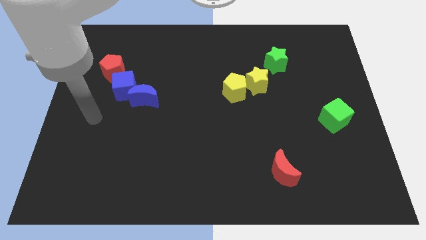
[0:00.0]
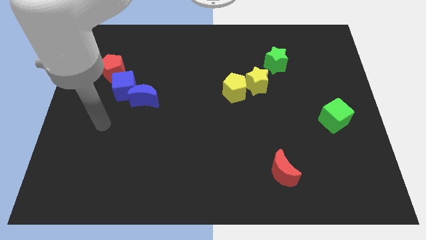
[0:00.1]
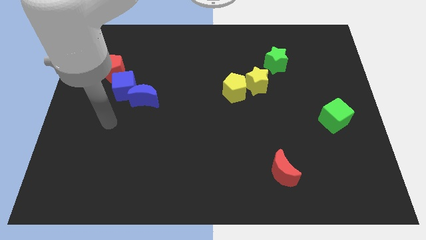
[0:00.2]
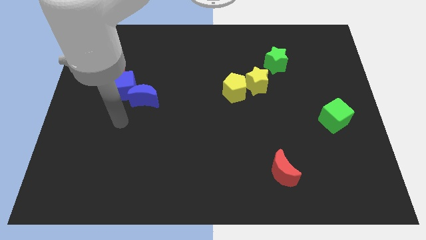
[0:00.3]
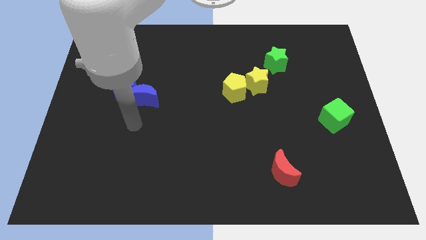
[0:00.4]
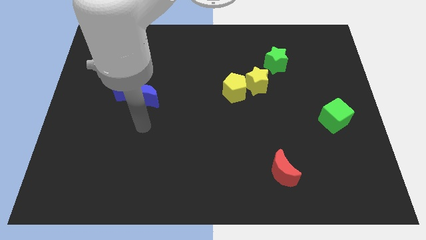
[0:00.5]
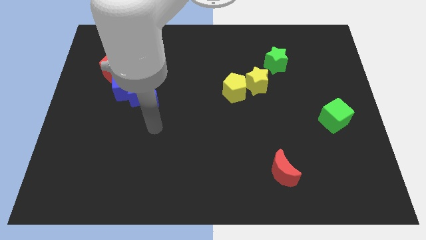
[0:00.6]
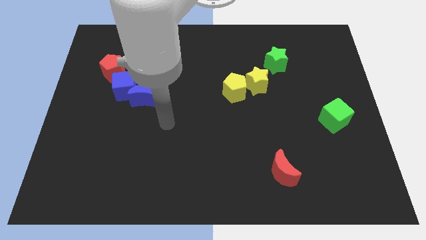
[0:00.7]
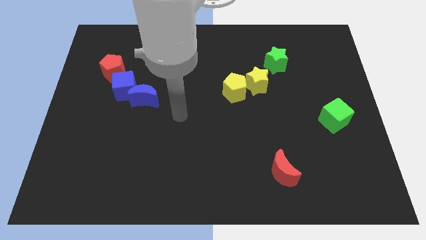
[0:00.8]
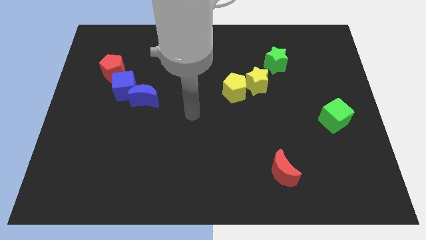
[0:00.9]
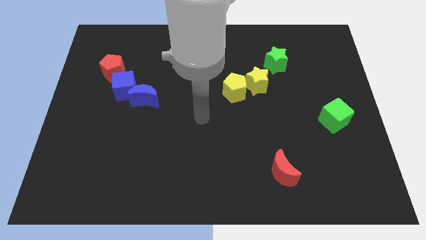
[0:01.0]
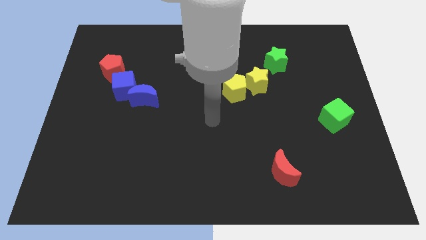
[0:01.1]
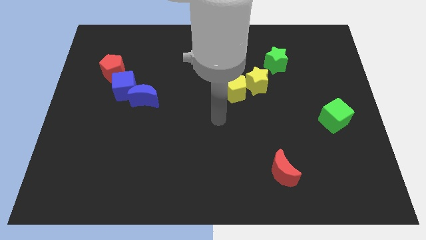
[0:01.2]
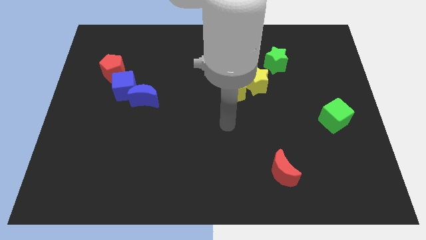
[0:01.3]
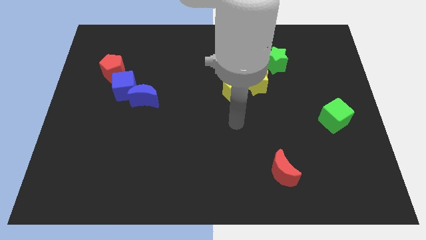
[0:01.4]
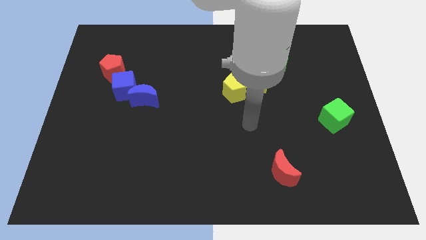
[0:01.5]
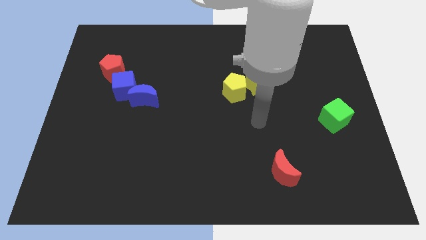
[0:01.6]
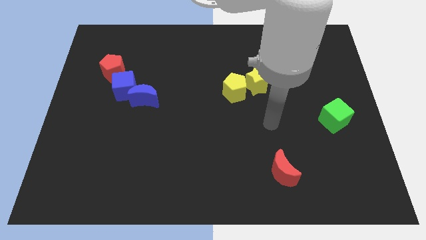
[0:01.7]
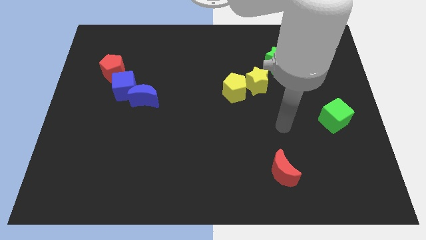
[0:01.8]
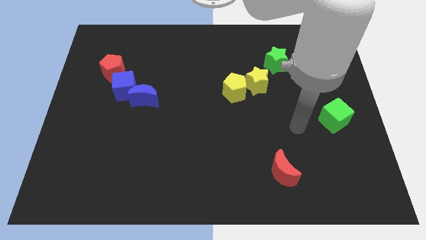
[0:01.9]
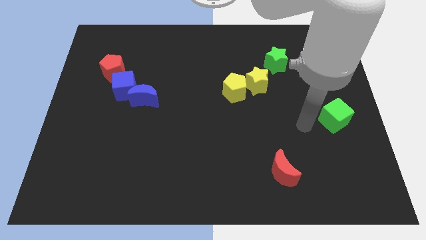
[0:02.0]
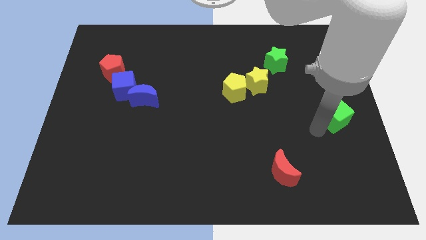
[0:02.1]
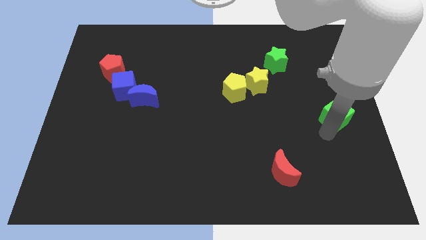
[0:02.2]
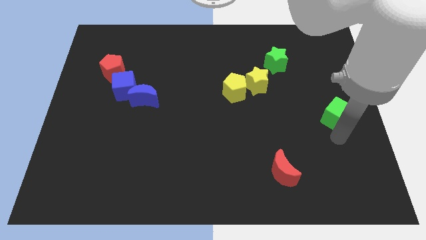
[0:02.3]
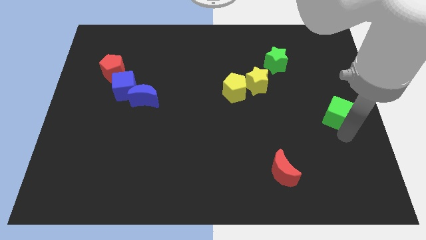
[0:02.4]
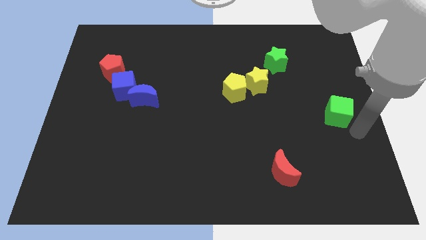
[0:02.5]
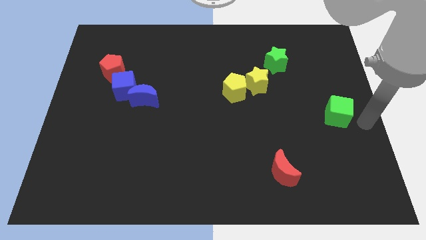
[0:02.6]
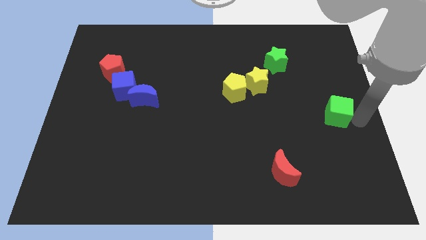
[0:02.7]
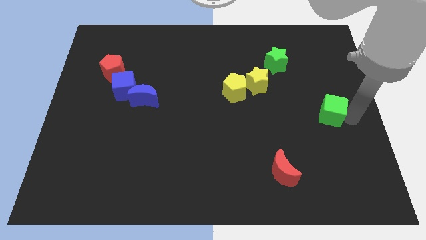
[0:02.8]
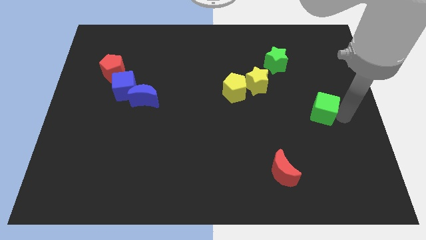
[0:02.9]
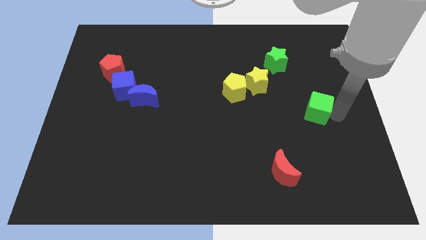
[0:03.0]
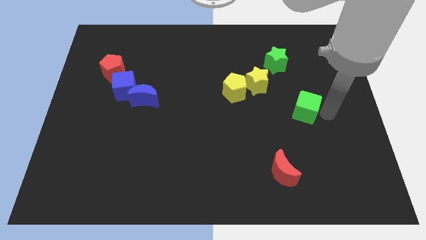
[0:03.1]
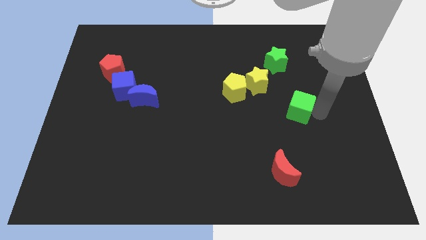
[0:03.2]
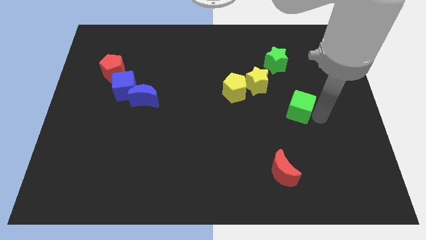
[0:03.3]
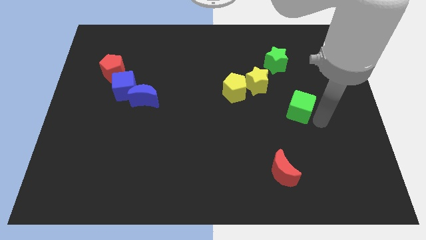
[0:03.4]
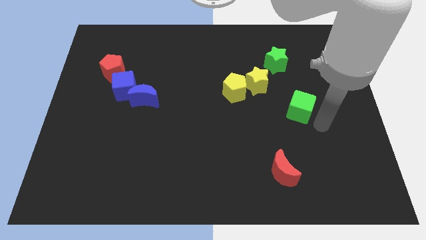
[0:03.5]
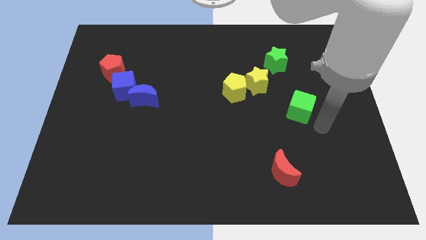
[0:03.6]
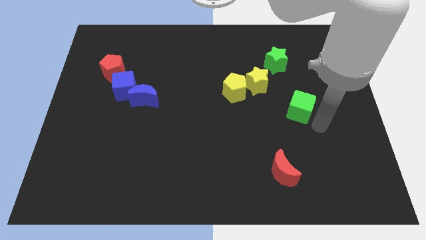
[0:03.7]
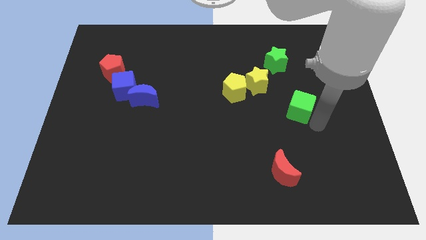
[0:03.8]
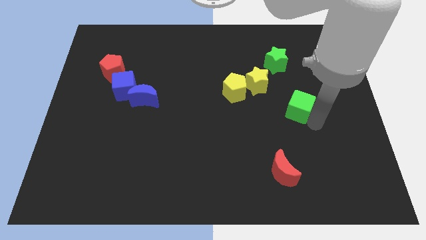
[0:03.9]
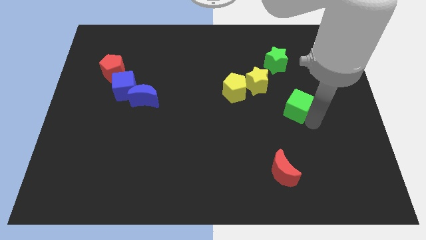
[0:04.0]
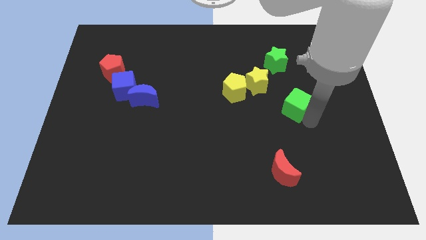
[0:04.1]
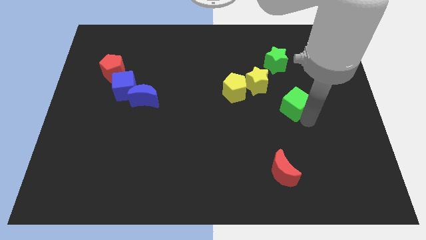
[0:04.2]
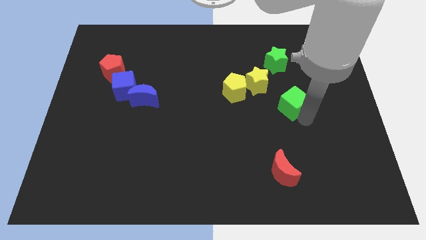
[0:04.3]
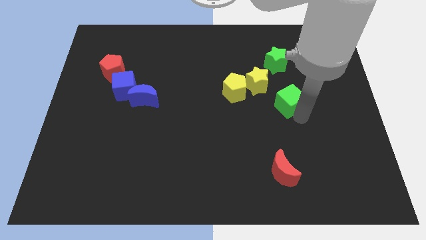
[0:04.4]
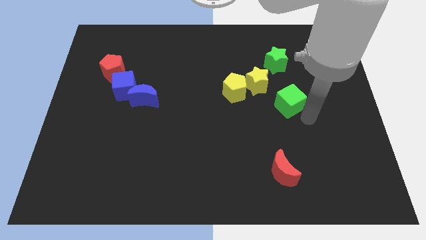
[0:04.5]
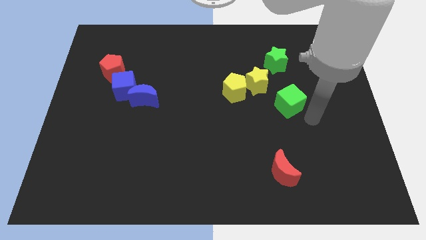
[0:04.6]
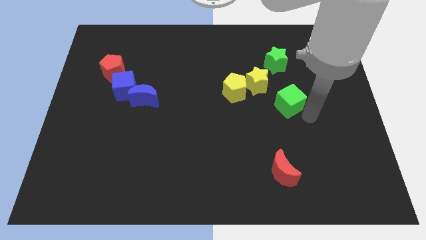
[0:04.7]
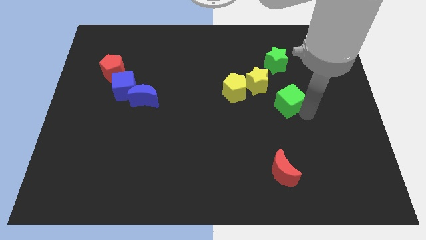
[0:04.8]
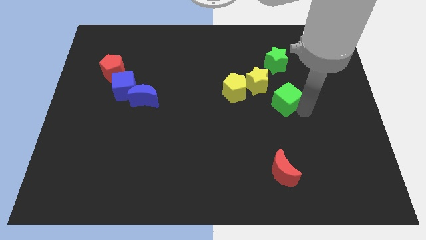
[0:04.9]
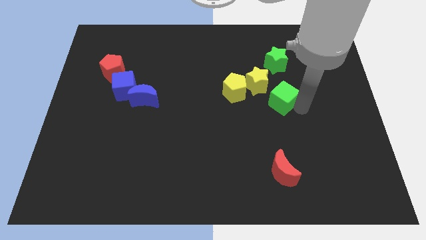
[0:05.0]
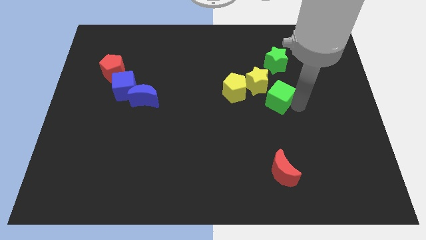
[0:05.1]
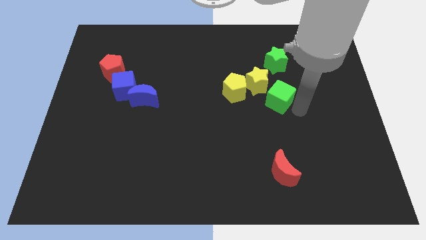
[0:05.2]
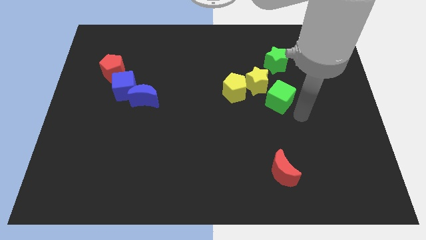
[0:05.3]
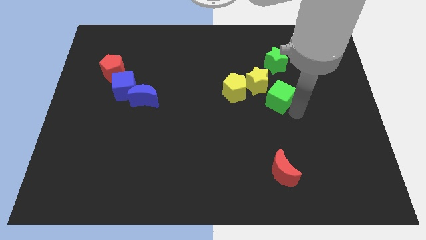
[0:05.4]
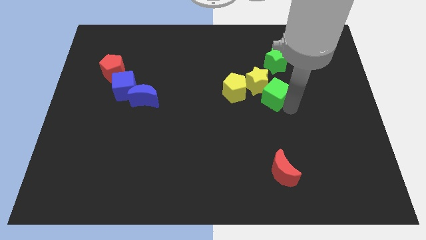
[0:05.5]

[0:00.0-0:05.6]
put the green cube next to the yellow star

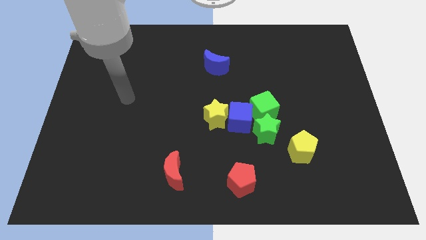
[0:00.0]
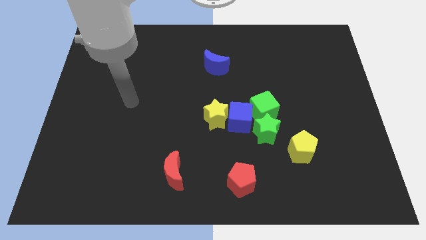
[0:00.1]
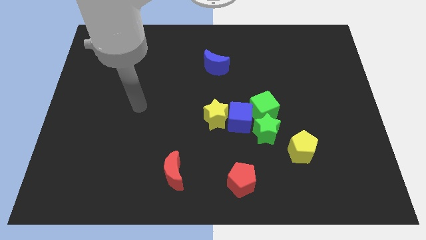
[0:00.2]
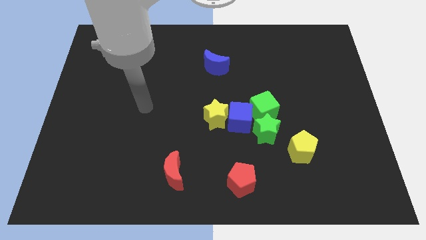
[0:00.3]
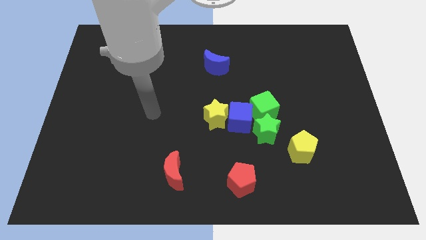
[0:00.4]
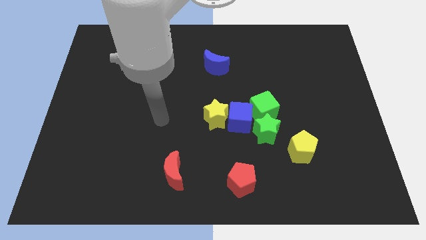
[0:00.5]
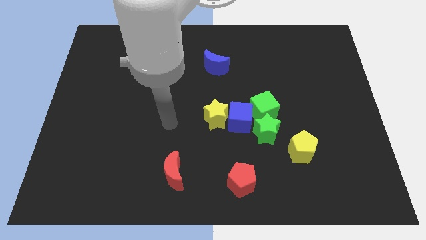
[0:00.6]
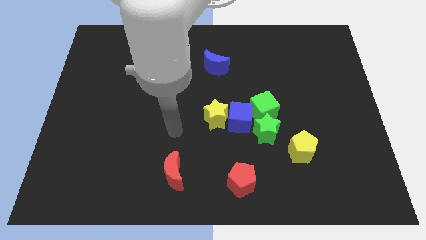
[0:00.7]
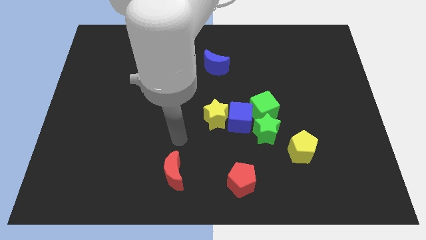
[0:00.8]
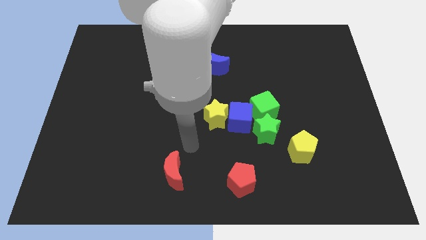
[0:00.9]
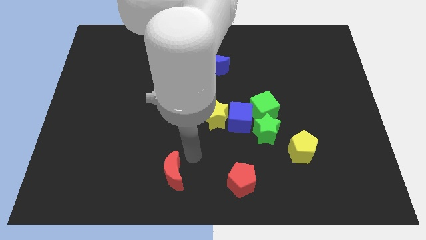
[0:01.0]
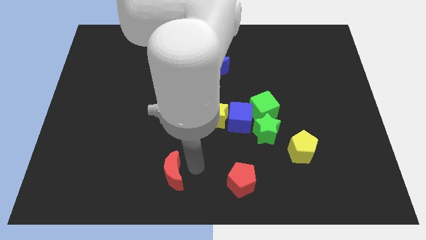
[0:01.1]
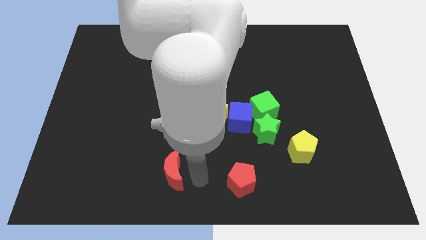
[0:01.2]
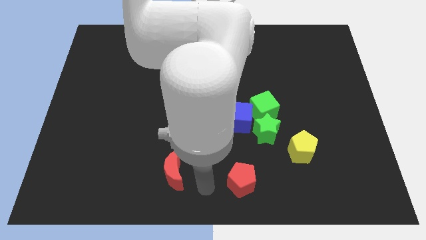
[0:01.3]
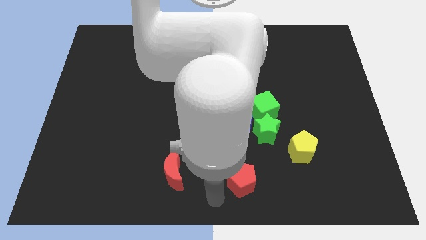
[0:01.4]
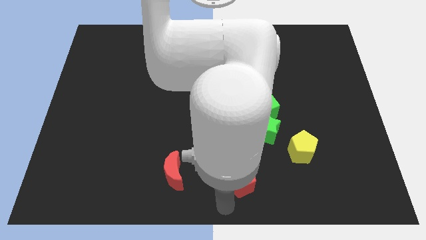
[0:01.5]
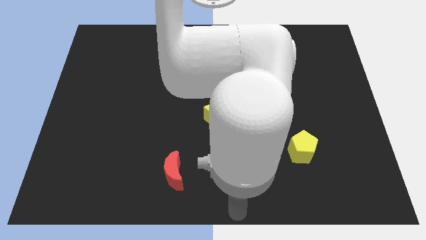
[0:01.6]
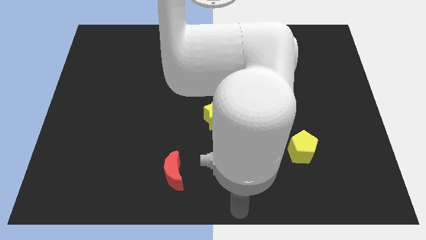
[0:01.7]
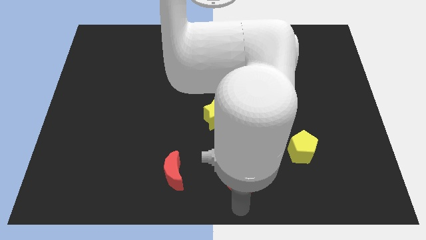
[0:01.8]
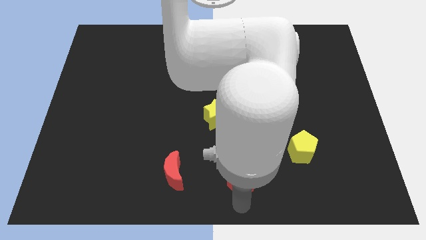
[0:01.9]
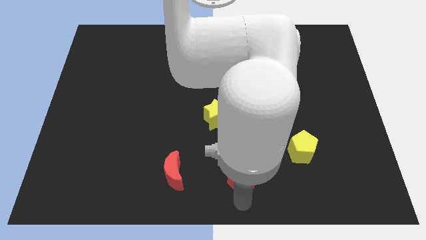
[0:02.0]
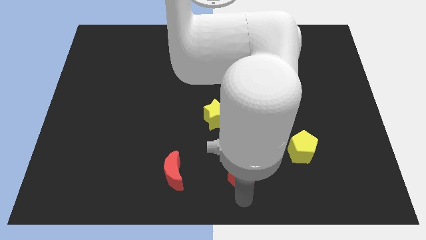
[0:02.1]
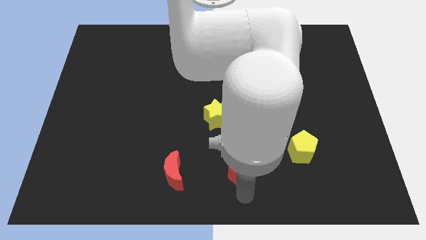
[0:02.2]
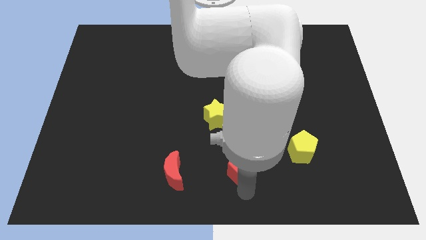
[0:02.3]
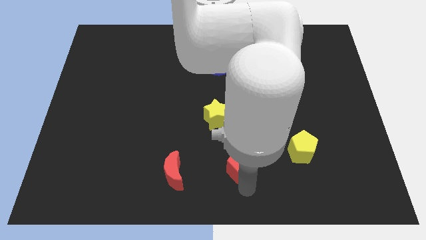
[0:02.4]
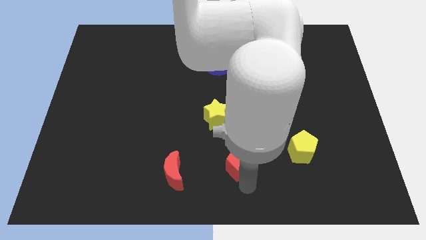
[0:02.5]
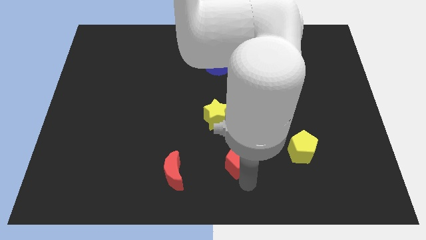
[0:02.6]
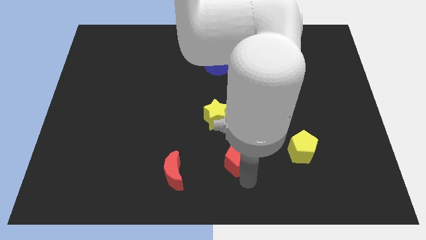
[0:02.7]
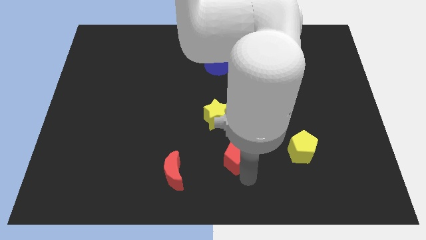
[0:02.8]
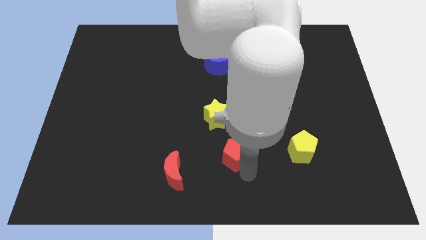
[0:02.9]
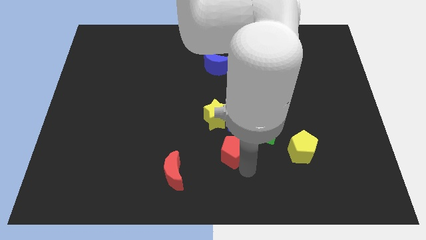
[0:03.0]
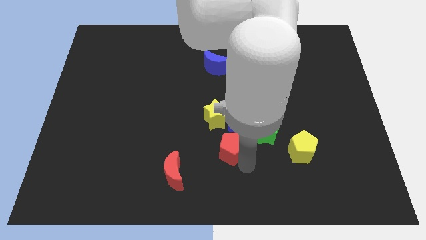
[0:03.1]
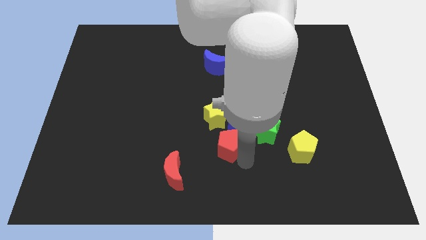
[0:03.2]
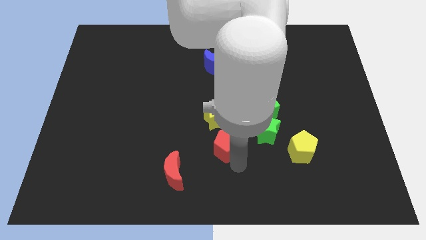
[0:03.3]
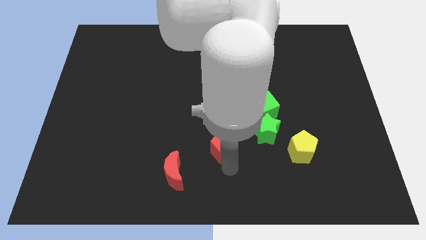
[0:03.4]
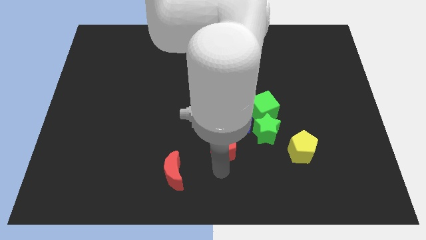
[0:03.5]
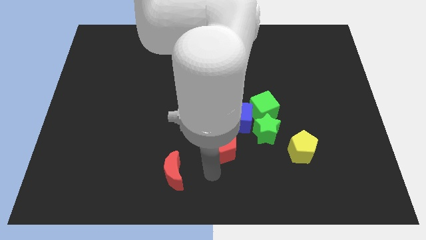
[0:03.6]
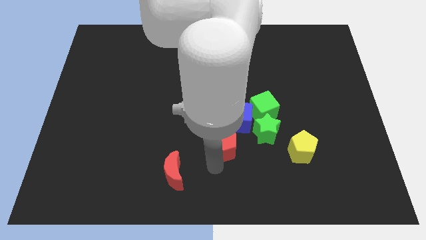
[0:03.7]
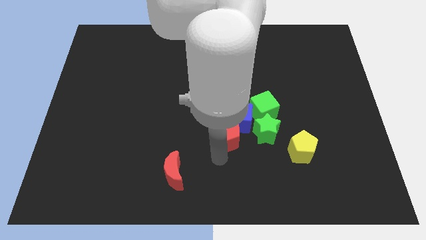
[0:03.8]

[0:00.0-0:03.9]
slide the red pentagon towards the blue cube
